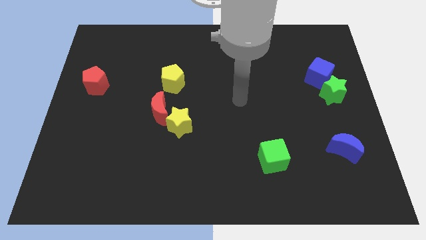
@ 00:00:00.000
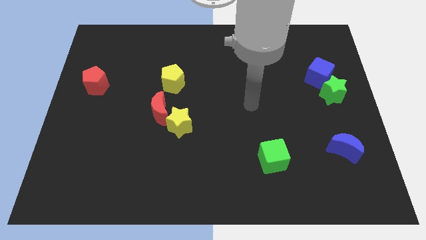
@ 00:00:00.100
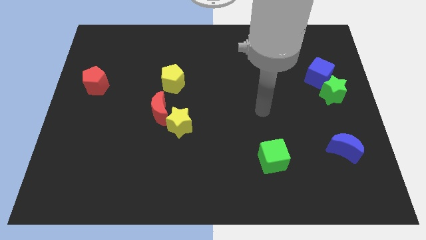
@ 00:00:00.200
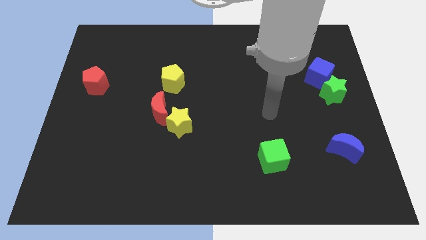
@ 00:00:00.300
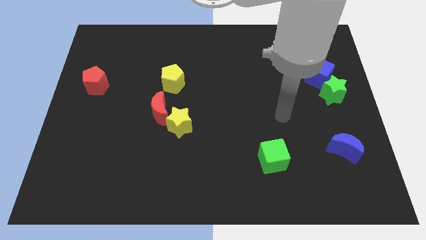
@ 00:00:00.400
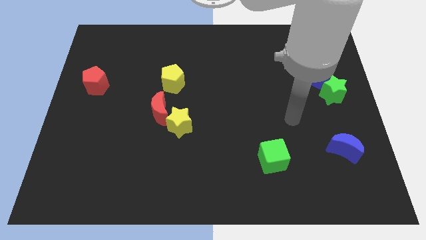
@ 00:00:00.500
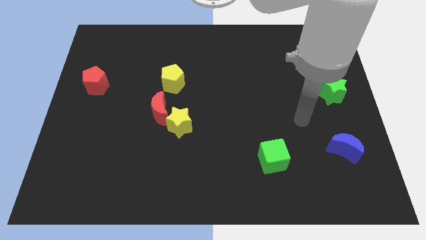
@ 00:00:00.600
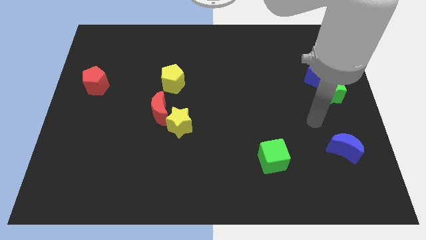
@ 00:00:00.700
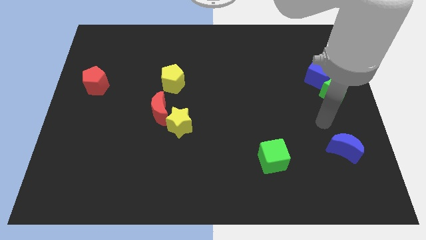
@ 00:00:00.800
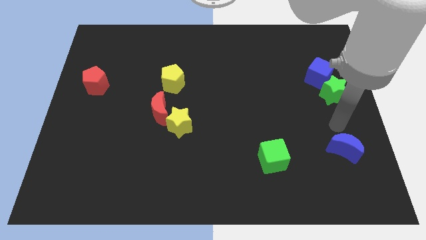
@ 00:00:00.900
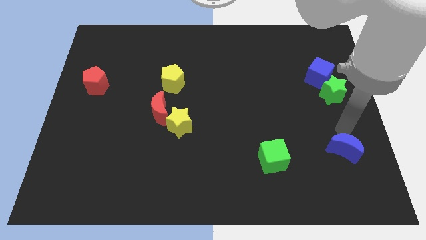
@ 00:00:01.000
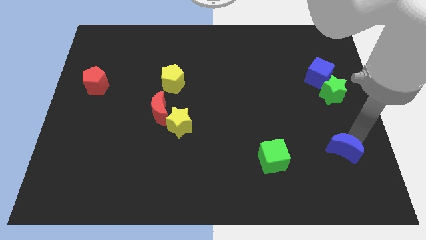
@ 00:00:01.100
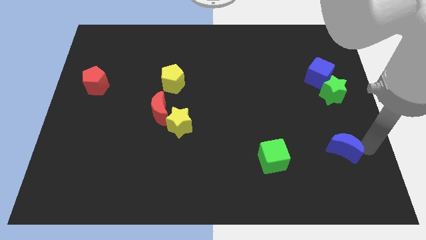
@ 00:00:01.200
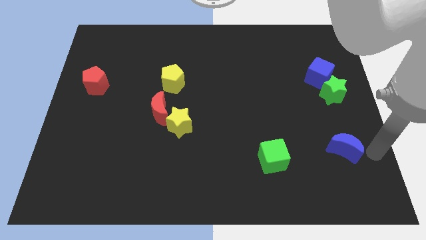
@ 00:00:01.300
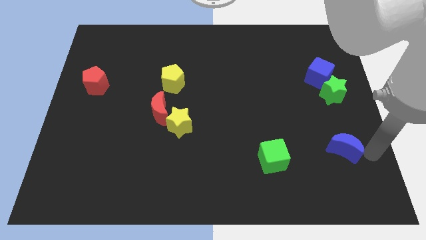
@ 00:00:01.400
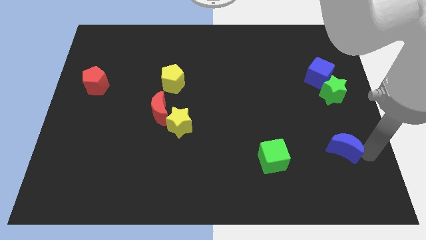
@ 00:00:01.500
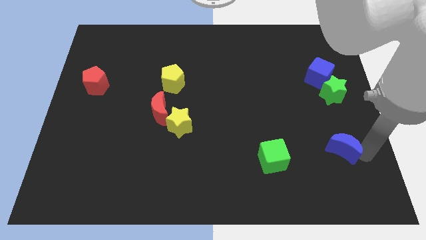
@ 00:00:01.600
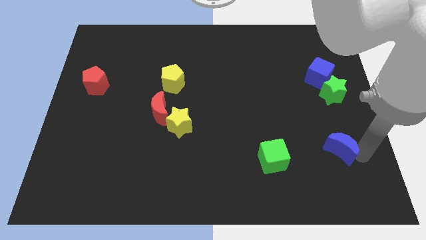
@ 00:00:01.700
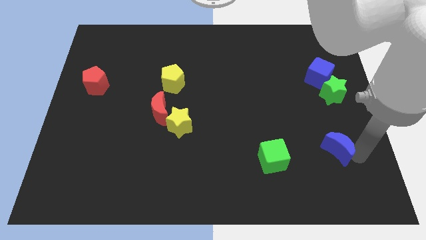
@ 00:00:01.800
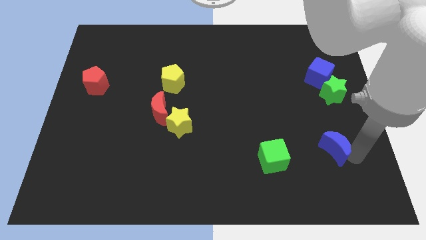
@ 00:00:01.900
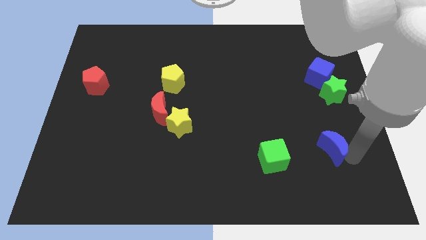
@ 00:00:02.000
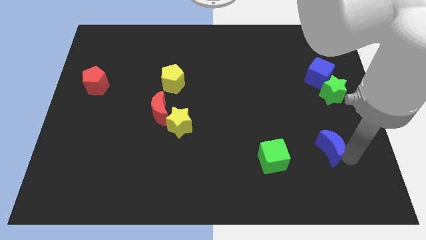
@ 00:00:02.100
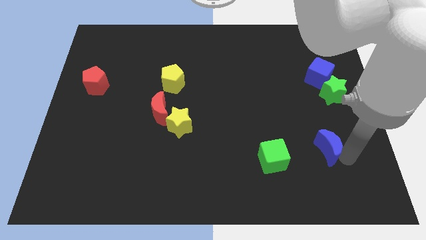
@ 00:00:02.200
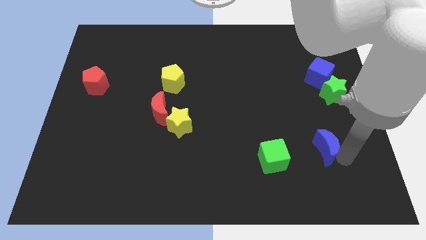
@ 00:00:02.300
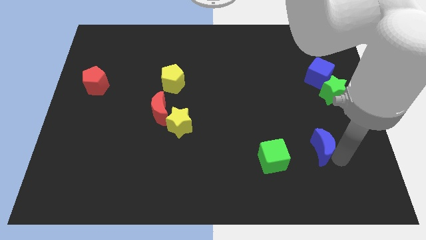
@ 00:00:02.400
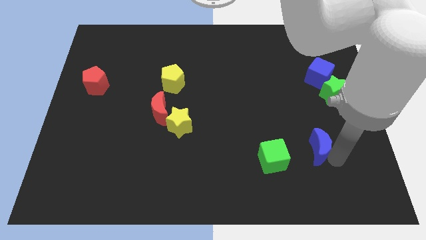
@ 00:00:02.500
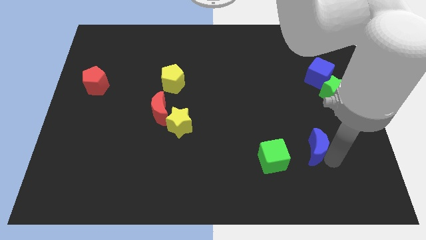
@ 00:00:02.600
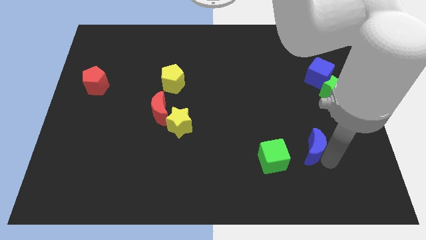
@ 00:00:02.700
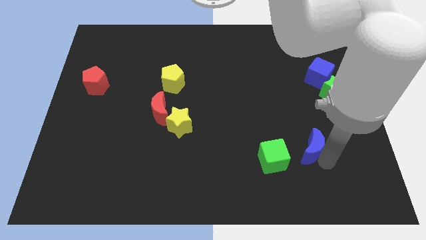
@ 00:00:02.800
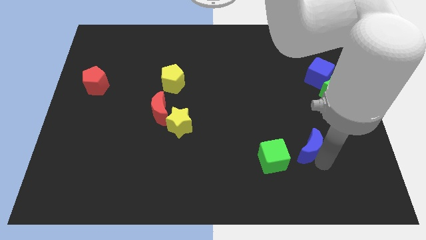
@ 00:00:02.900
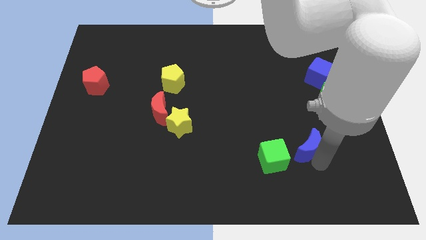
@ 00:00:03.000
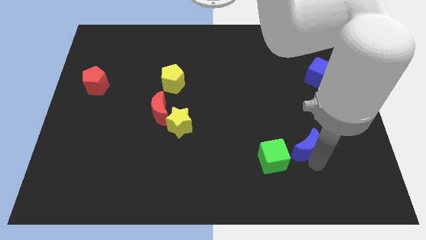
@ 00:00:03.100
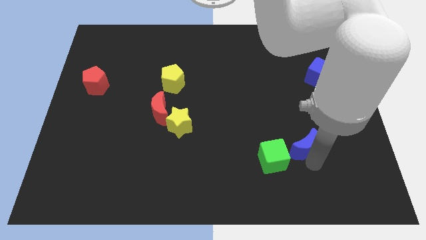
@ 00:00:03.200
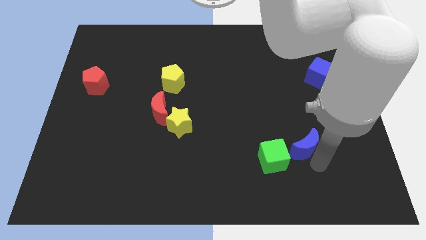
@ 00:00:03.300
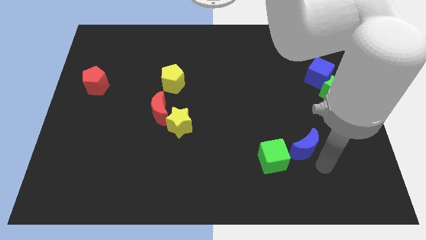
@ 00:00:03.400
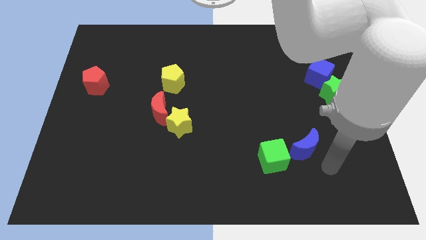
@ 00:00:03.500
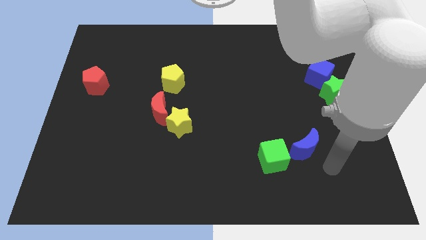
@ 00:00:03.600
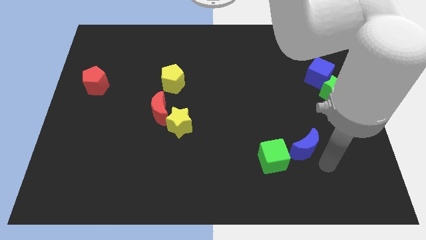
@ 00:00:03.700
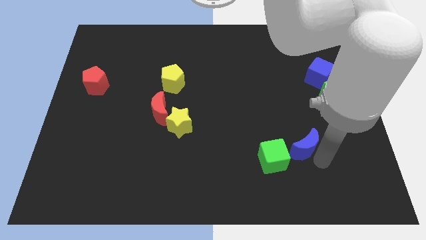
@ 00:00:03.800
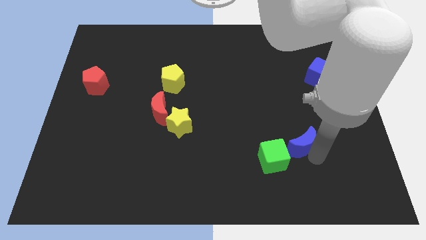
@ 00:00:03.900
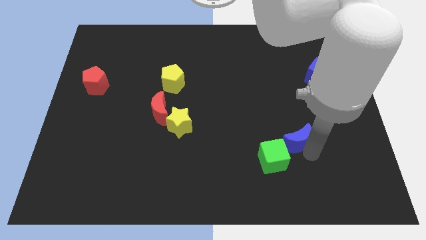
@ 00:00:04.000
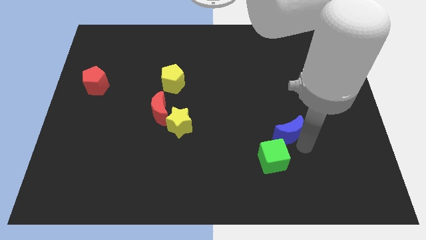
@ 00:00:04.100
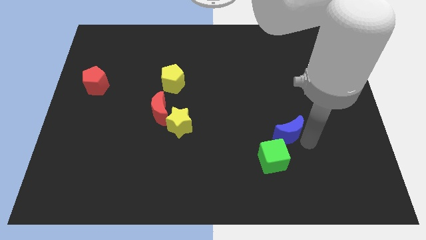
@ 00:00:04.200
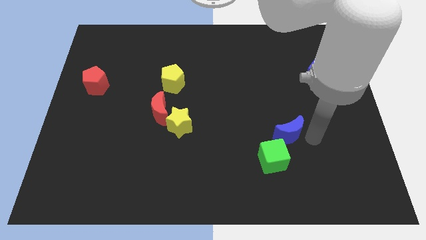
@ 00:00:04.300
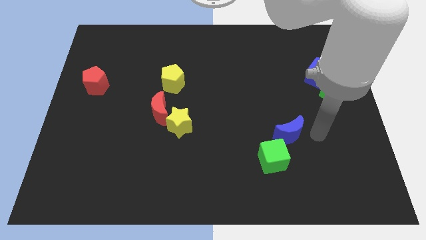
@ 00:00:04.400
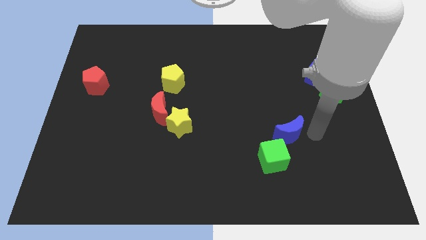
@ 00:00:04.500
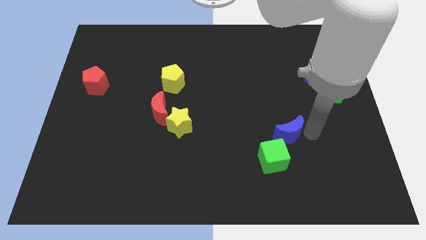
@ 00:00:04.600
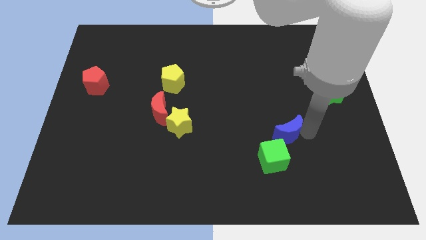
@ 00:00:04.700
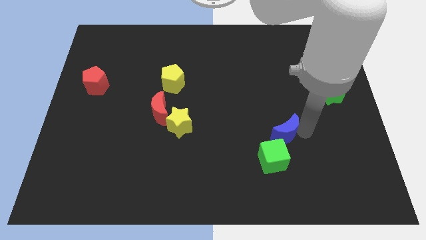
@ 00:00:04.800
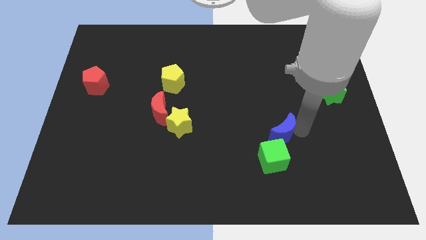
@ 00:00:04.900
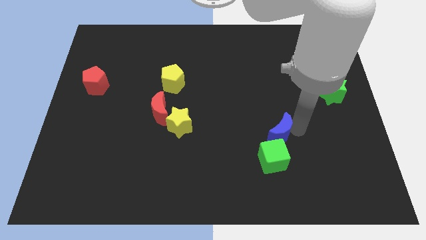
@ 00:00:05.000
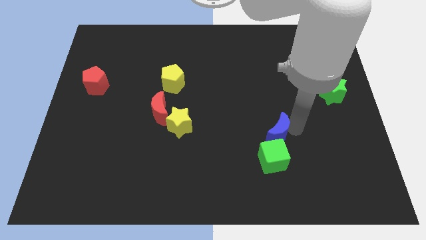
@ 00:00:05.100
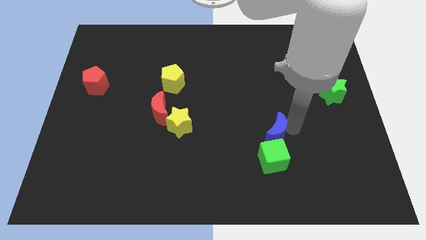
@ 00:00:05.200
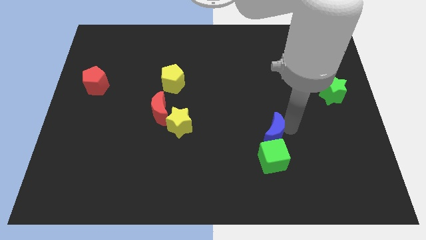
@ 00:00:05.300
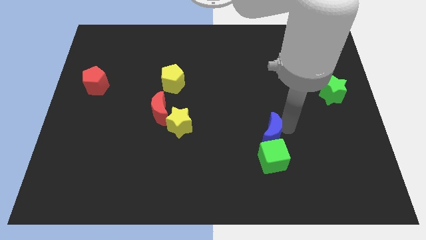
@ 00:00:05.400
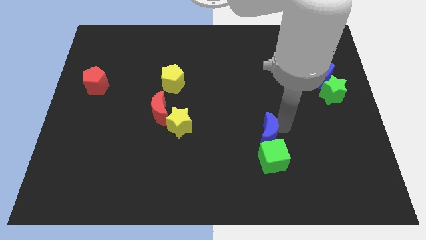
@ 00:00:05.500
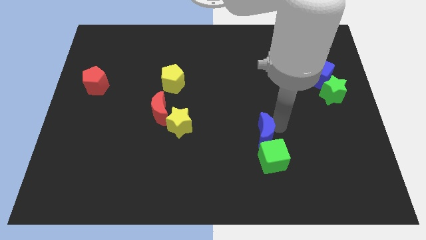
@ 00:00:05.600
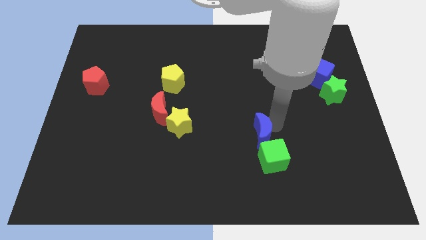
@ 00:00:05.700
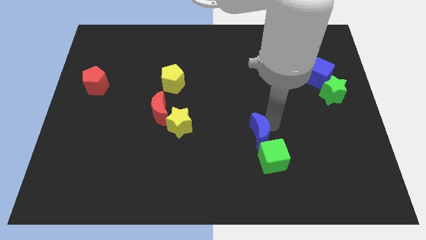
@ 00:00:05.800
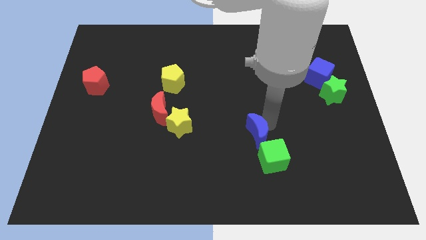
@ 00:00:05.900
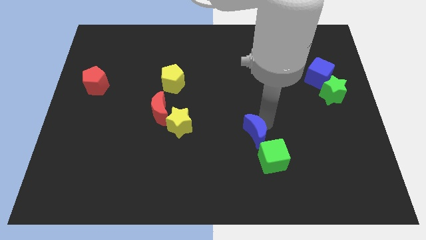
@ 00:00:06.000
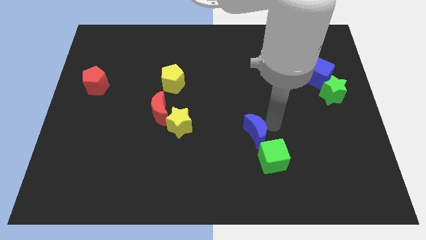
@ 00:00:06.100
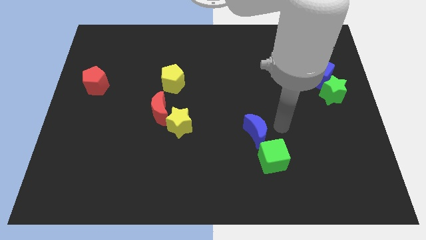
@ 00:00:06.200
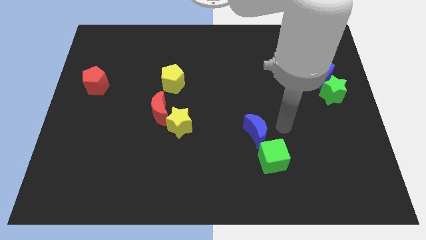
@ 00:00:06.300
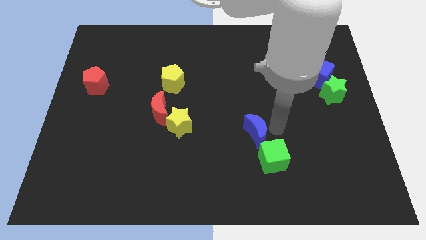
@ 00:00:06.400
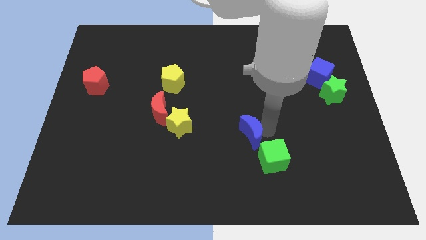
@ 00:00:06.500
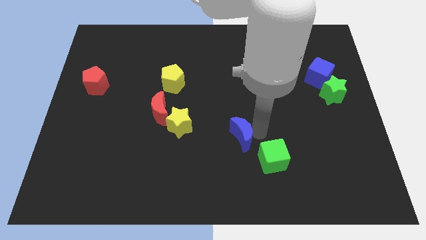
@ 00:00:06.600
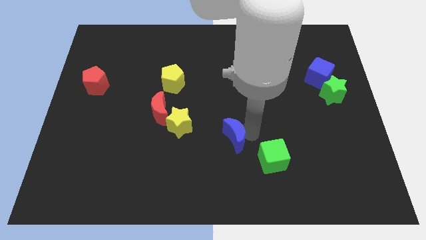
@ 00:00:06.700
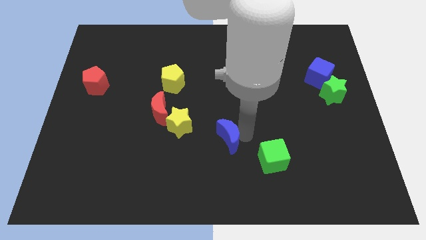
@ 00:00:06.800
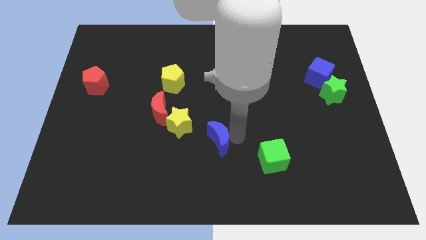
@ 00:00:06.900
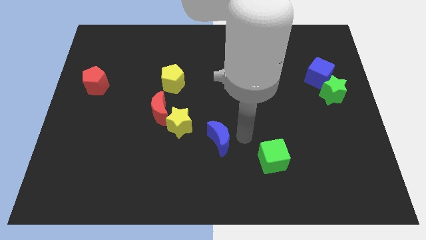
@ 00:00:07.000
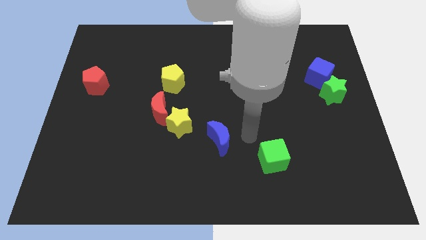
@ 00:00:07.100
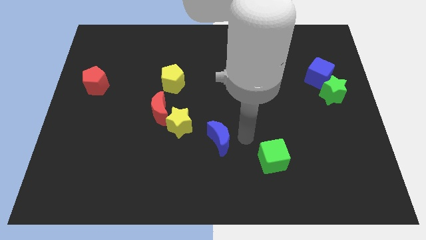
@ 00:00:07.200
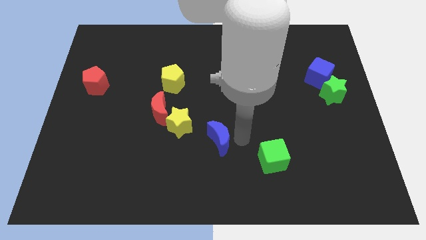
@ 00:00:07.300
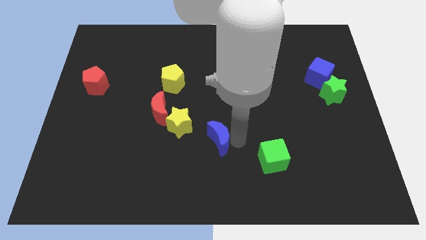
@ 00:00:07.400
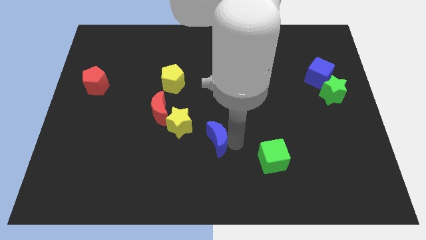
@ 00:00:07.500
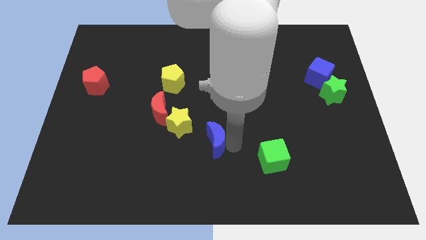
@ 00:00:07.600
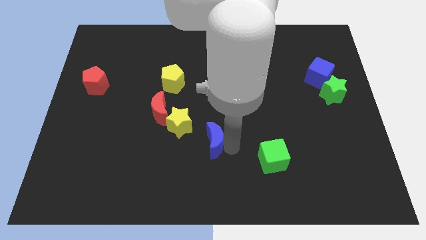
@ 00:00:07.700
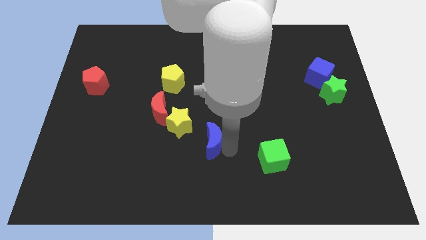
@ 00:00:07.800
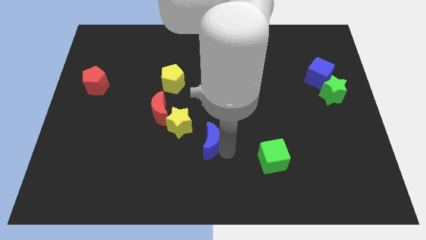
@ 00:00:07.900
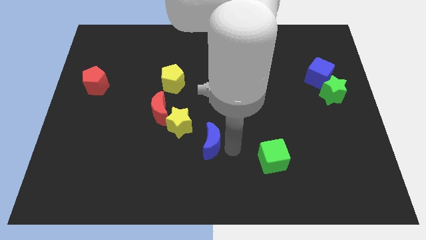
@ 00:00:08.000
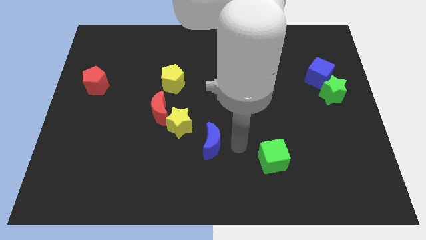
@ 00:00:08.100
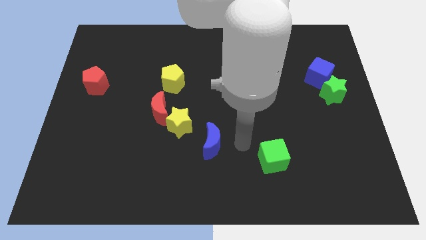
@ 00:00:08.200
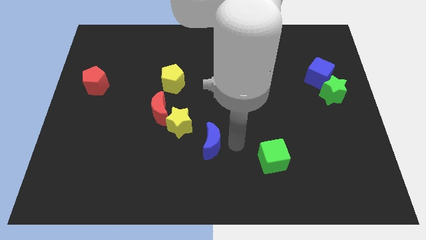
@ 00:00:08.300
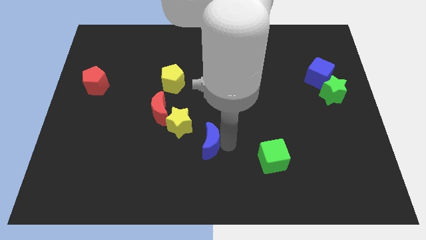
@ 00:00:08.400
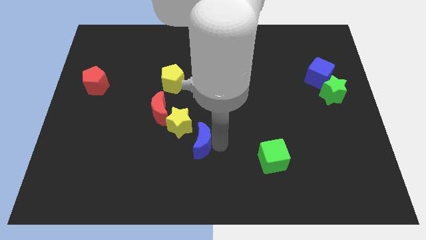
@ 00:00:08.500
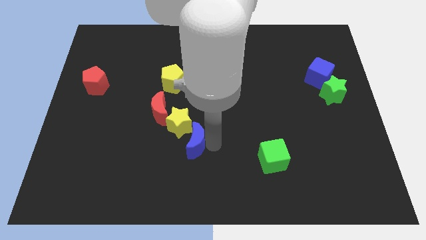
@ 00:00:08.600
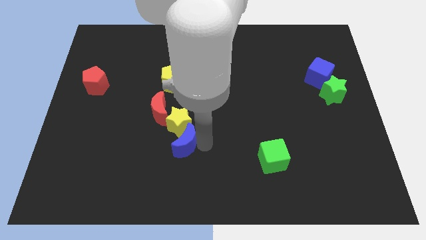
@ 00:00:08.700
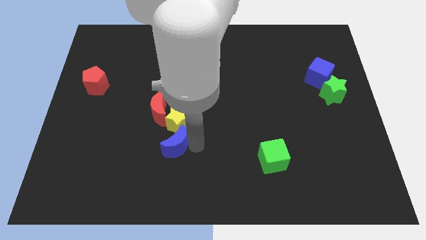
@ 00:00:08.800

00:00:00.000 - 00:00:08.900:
slide the blue moon diagonally down and to the left of the yellow star
